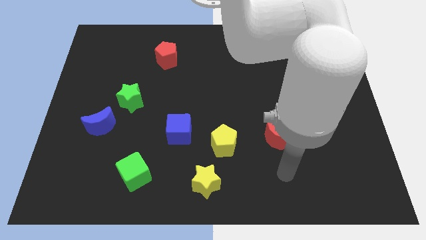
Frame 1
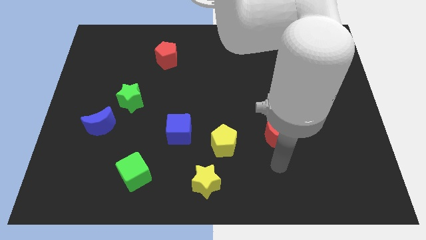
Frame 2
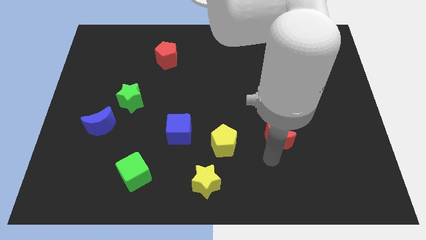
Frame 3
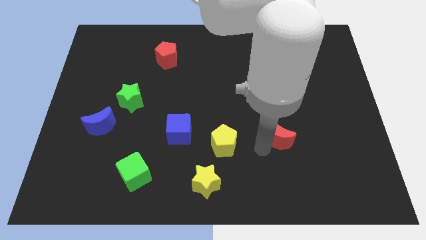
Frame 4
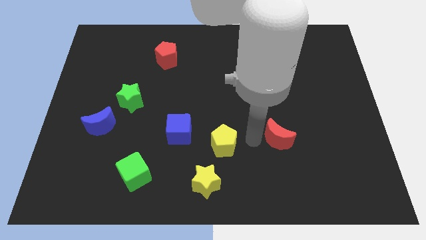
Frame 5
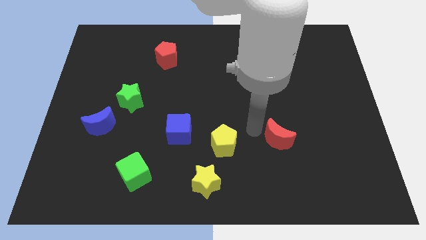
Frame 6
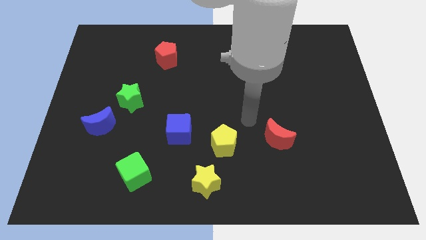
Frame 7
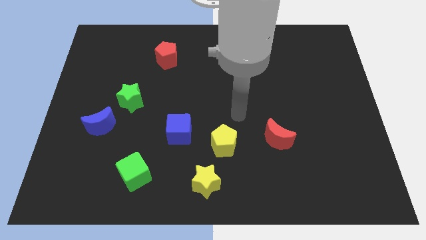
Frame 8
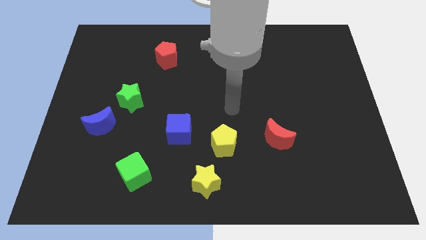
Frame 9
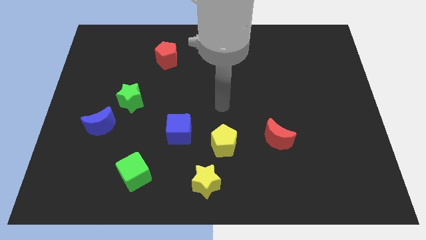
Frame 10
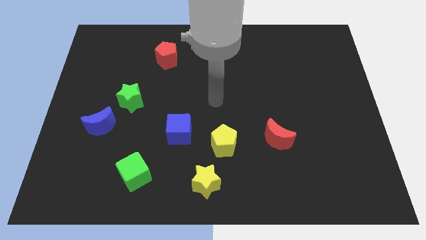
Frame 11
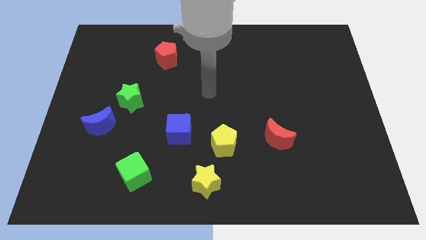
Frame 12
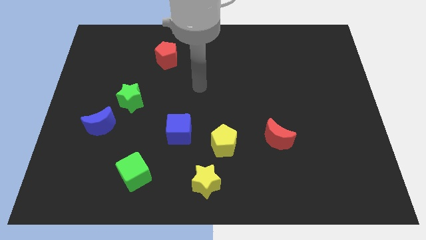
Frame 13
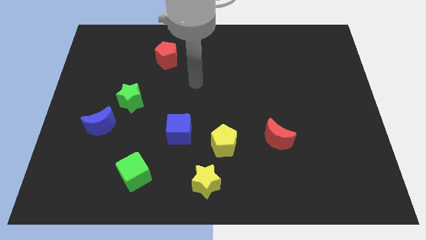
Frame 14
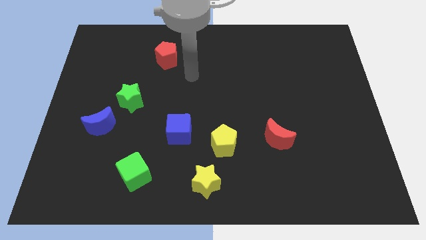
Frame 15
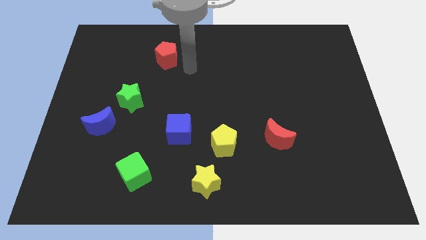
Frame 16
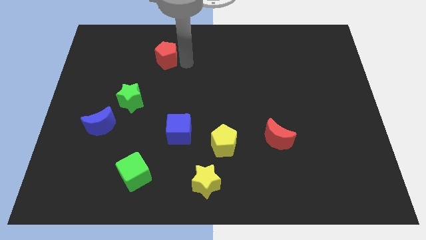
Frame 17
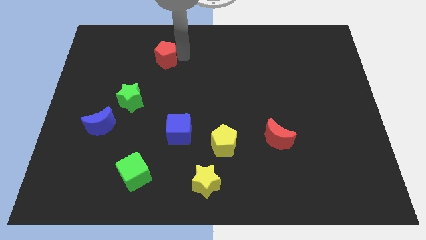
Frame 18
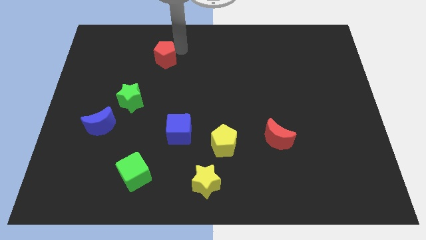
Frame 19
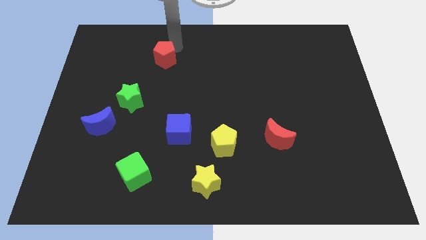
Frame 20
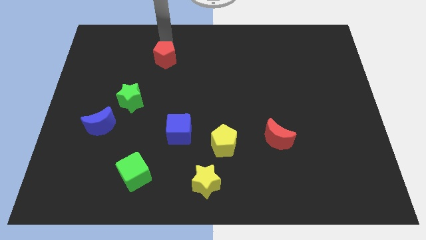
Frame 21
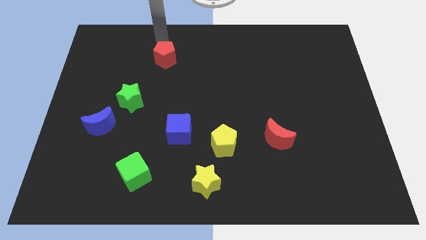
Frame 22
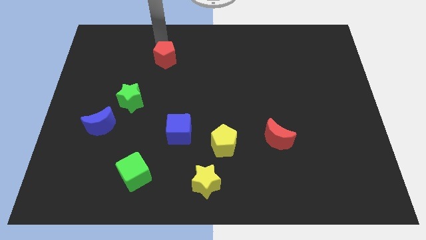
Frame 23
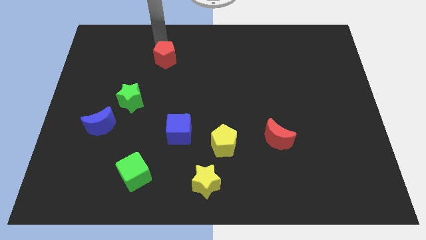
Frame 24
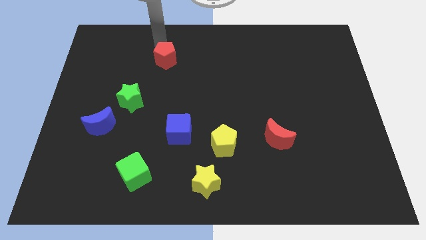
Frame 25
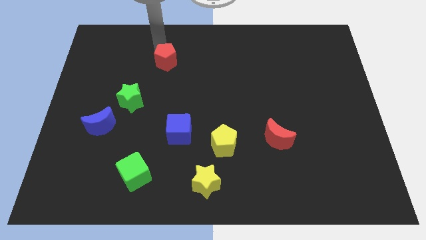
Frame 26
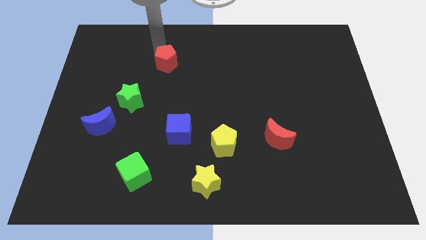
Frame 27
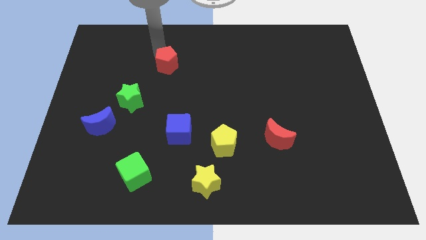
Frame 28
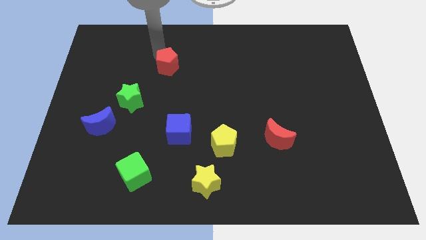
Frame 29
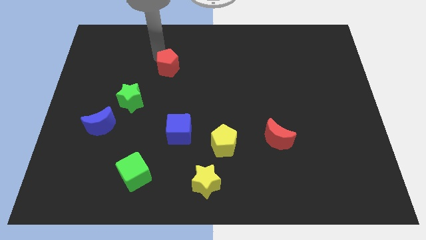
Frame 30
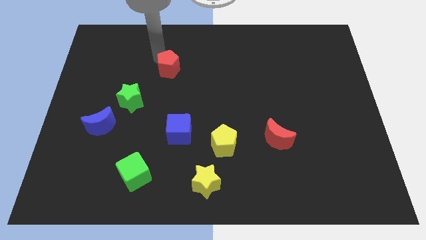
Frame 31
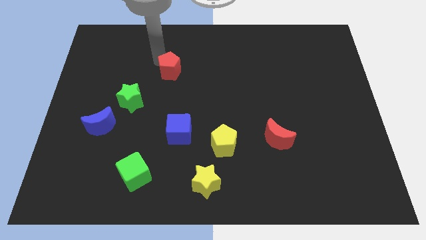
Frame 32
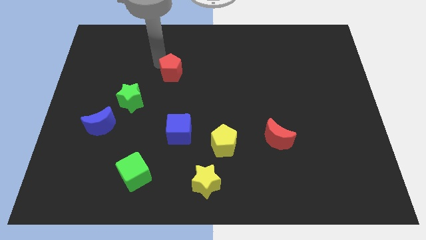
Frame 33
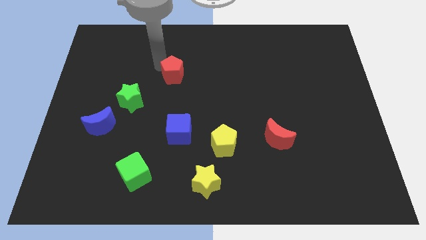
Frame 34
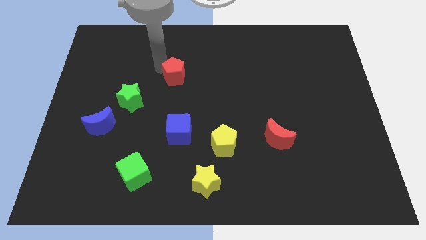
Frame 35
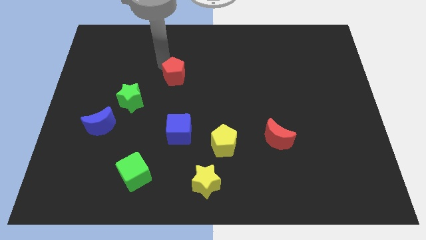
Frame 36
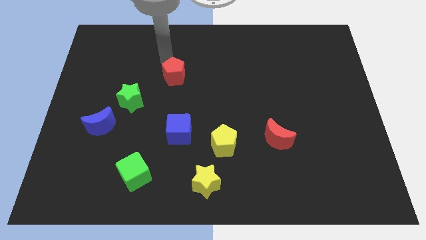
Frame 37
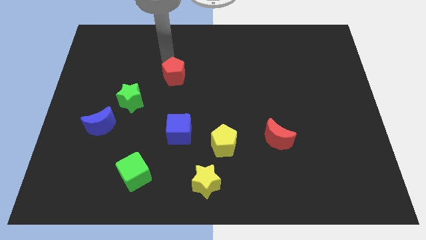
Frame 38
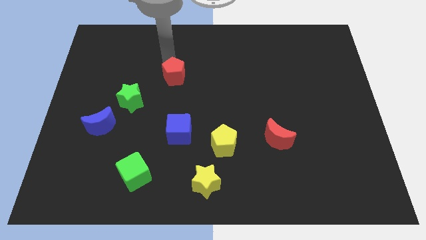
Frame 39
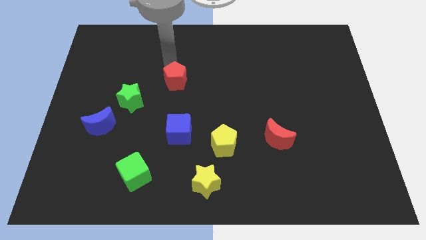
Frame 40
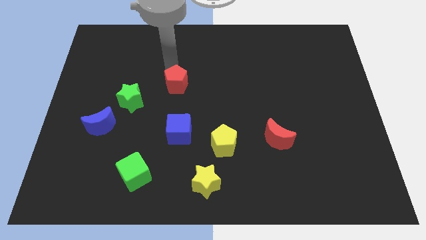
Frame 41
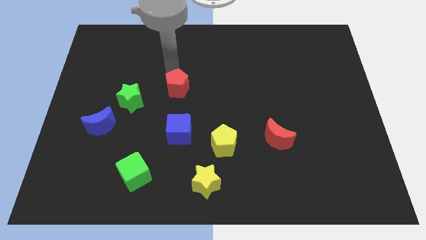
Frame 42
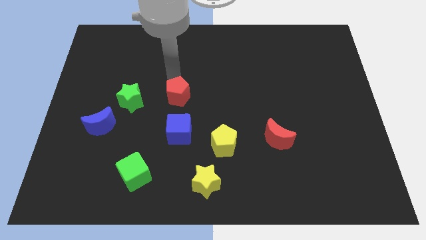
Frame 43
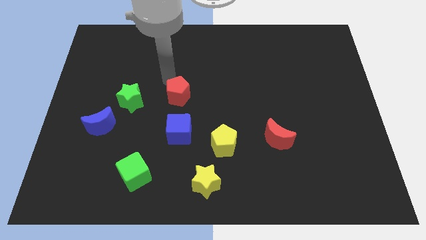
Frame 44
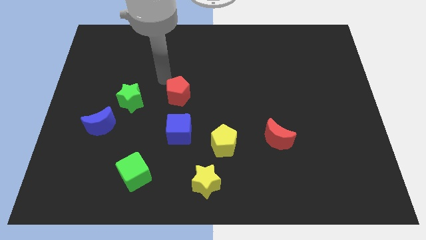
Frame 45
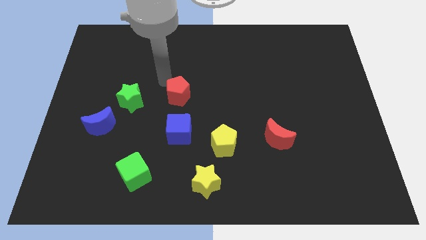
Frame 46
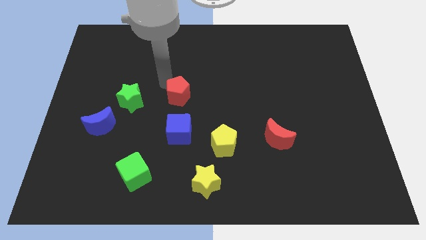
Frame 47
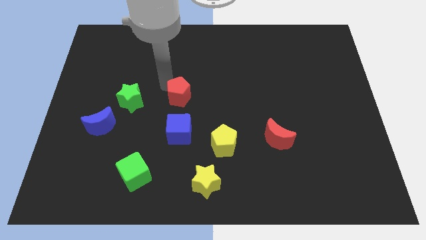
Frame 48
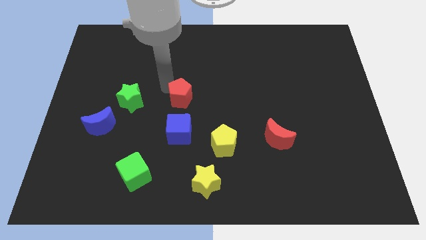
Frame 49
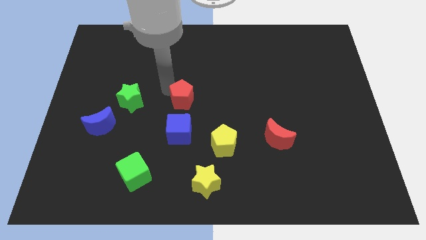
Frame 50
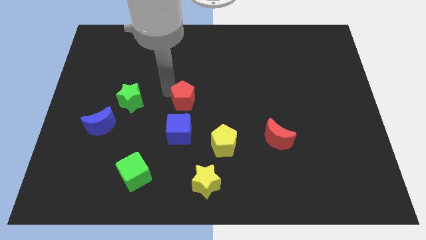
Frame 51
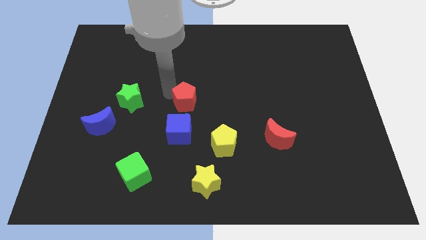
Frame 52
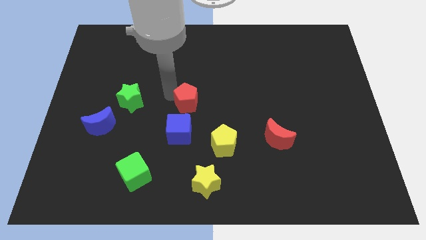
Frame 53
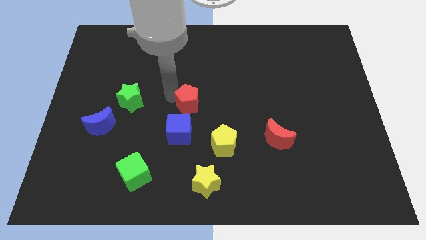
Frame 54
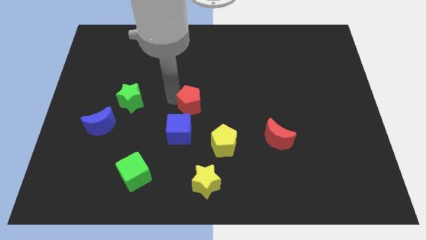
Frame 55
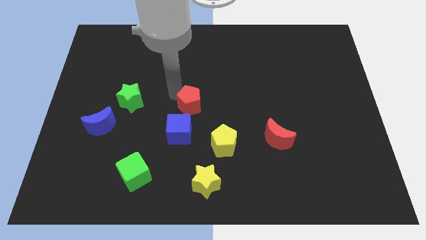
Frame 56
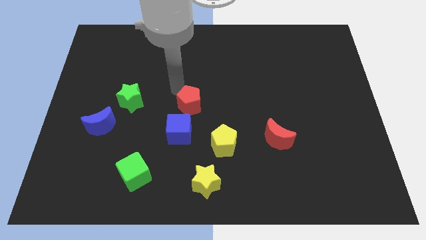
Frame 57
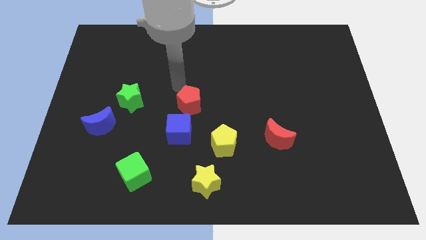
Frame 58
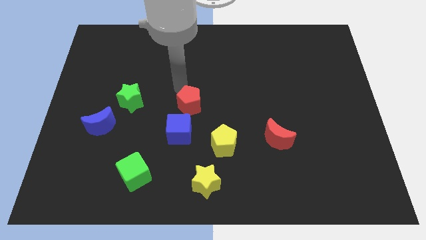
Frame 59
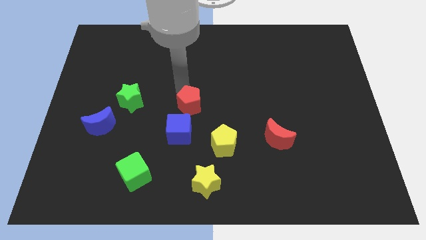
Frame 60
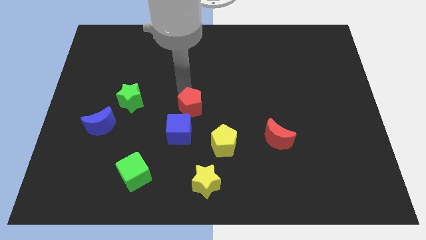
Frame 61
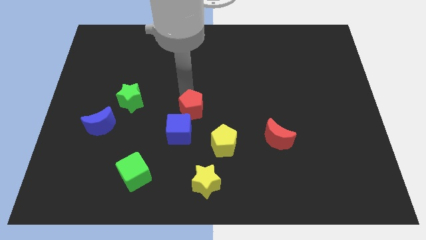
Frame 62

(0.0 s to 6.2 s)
move the red pentagon to the top left of the yellow pentagon
